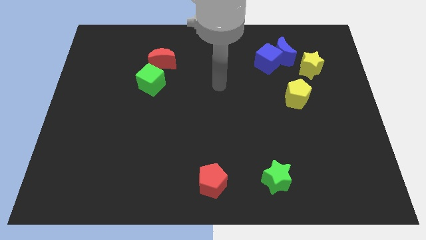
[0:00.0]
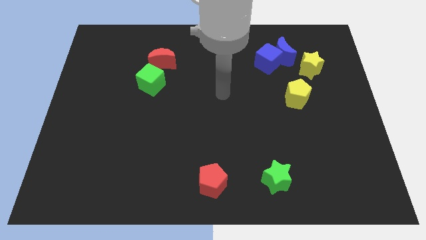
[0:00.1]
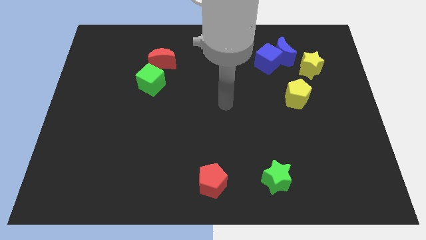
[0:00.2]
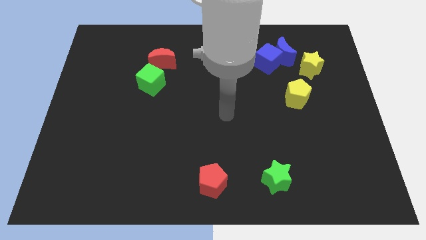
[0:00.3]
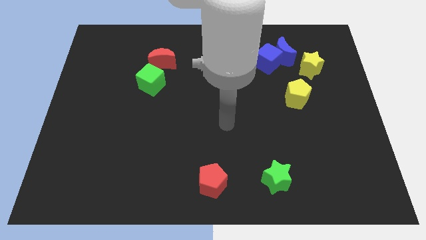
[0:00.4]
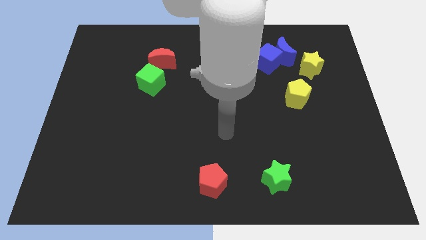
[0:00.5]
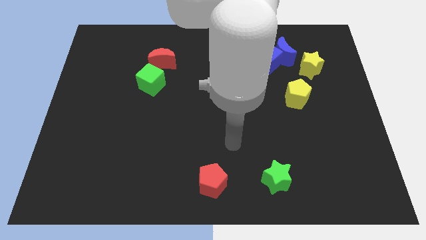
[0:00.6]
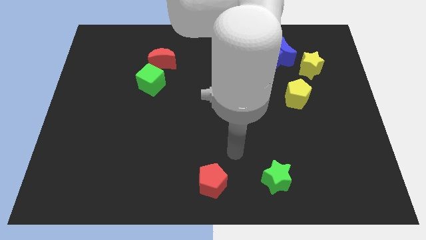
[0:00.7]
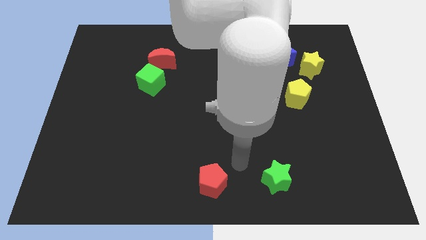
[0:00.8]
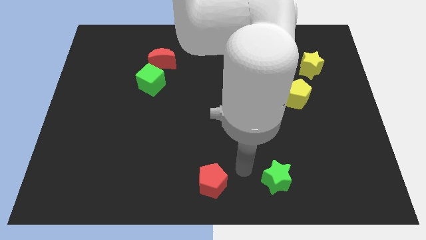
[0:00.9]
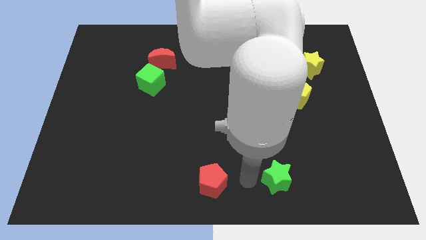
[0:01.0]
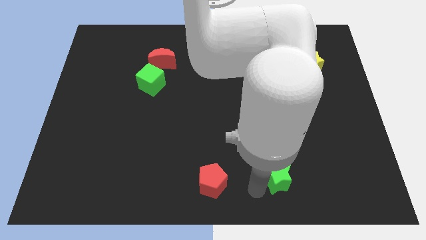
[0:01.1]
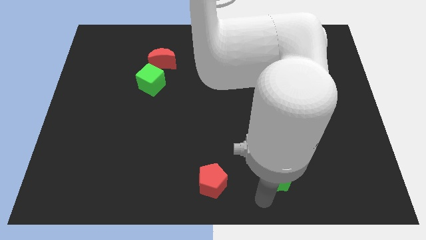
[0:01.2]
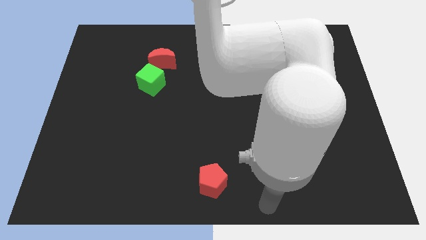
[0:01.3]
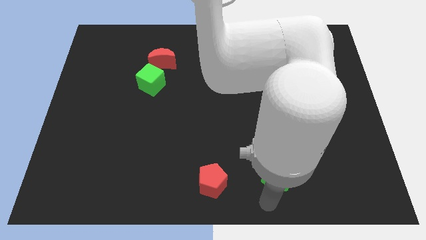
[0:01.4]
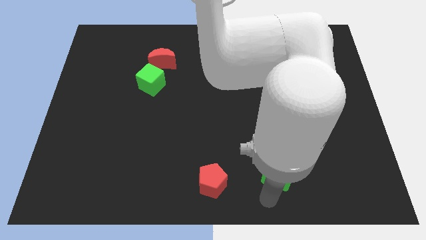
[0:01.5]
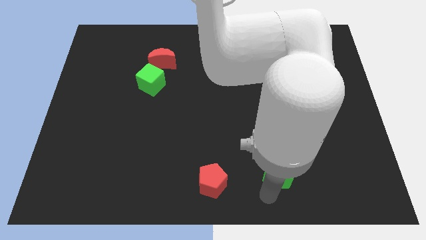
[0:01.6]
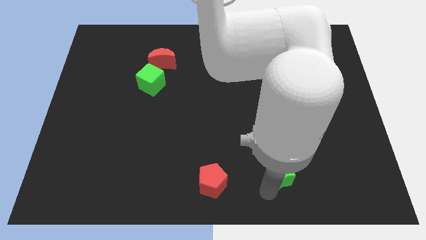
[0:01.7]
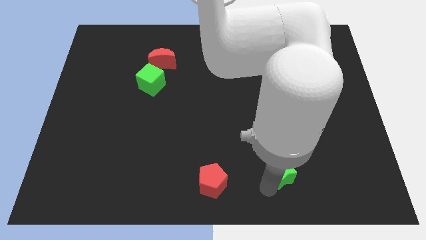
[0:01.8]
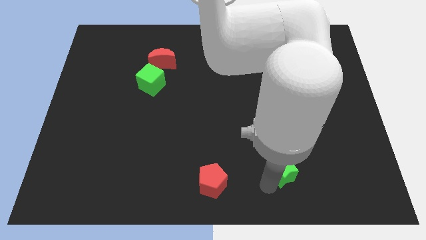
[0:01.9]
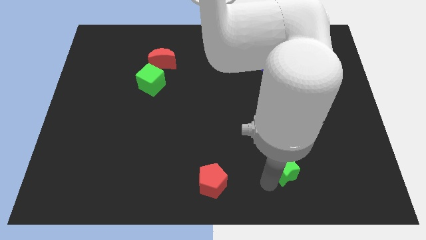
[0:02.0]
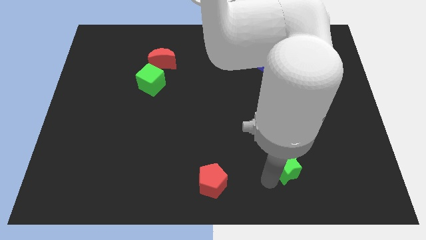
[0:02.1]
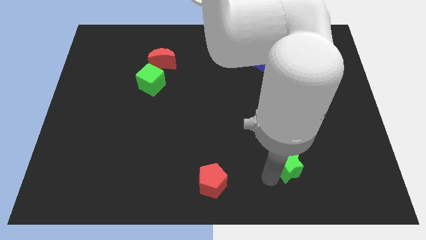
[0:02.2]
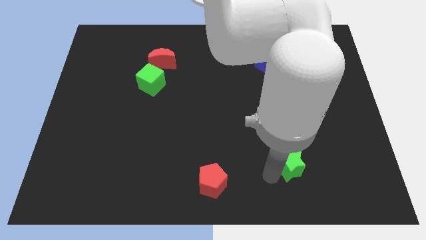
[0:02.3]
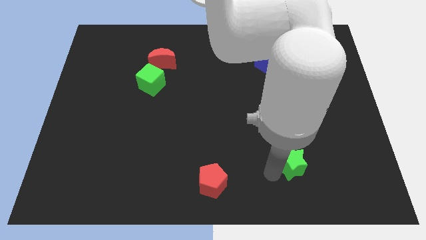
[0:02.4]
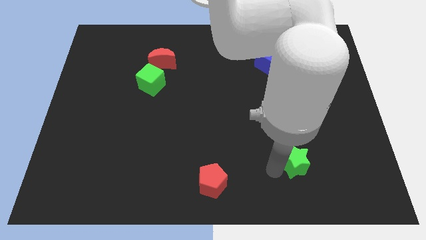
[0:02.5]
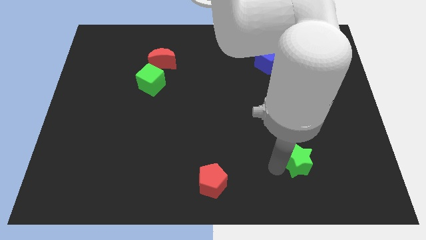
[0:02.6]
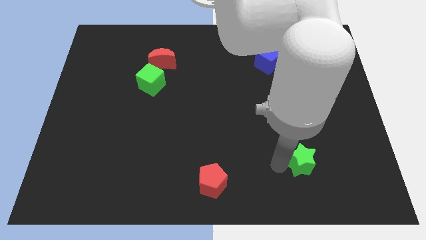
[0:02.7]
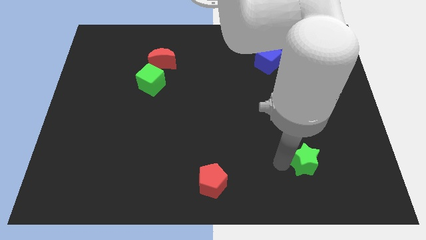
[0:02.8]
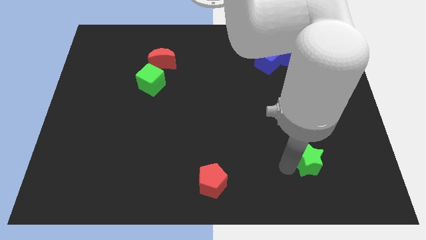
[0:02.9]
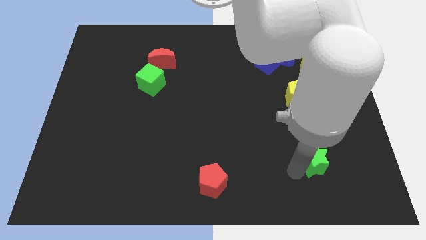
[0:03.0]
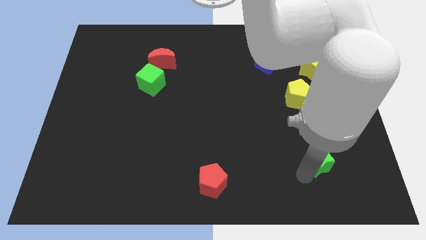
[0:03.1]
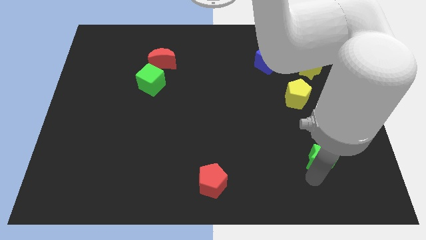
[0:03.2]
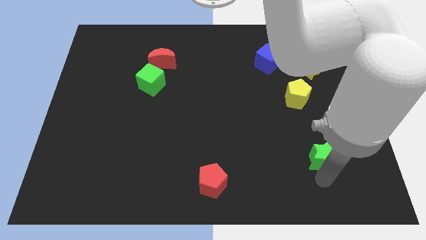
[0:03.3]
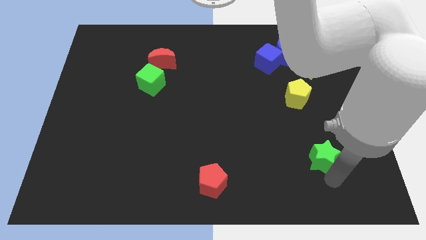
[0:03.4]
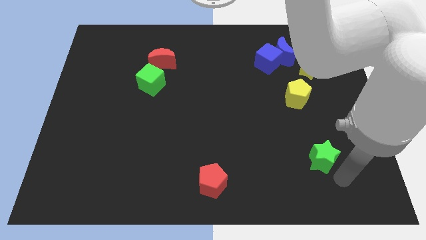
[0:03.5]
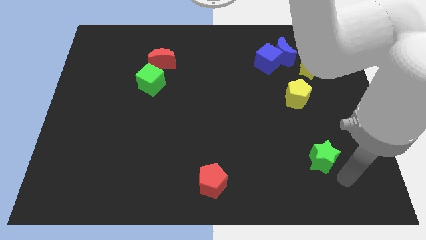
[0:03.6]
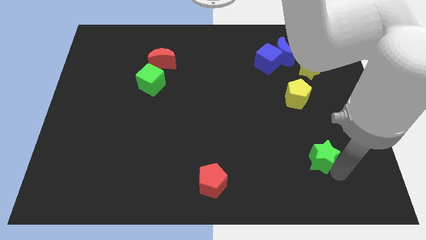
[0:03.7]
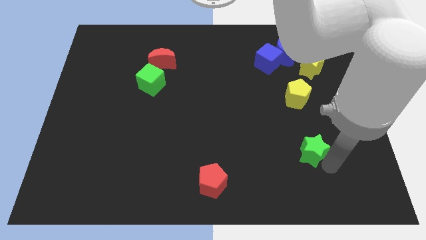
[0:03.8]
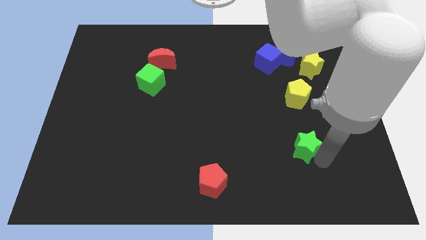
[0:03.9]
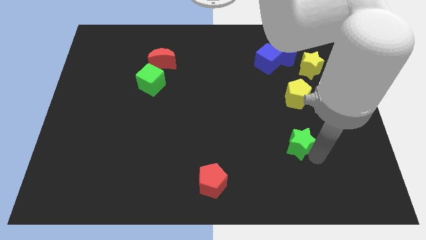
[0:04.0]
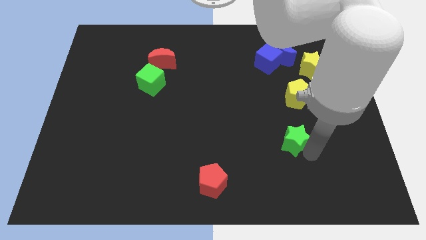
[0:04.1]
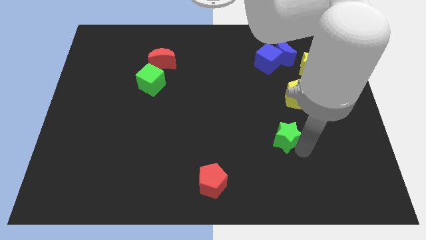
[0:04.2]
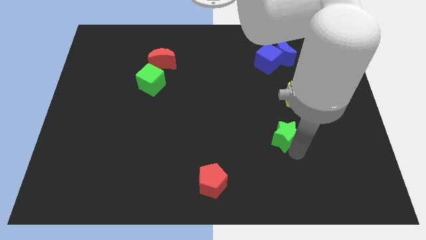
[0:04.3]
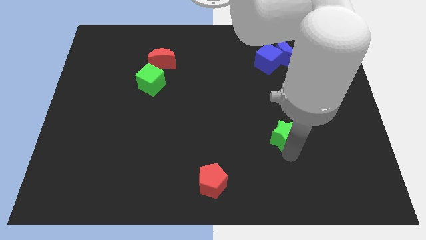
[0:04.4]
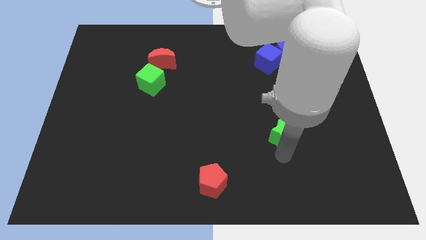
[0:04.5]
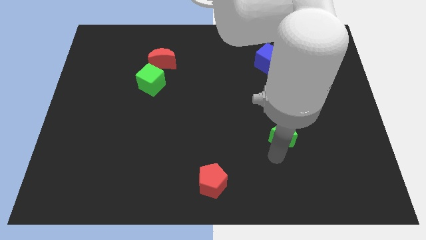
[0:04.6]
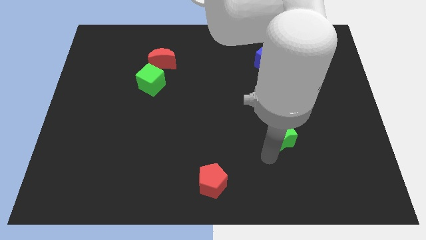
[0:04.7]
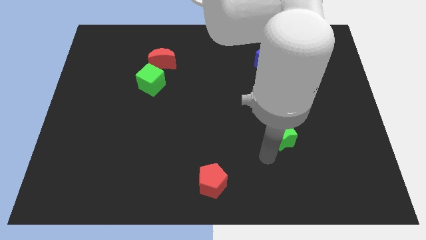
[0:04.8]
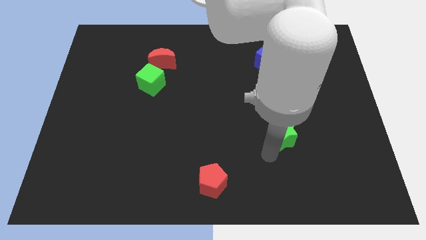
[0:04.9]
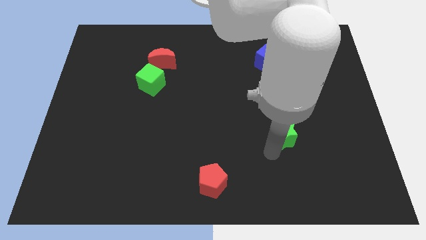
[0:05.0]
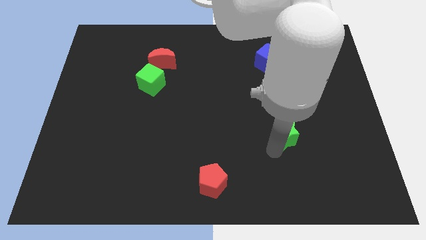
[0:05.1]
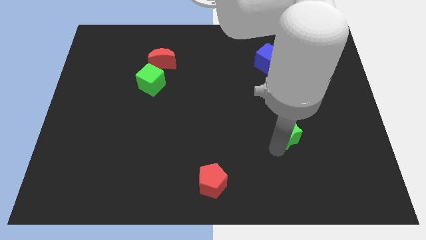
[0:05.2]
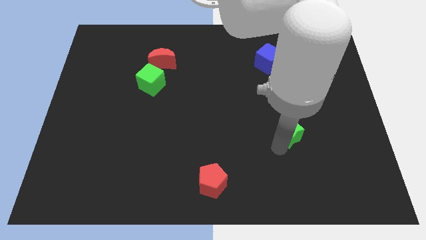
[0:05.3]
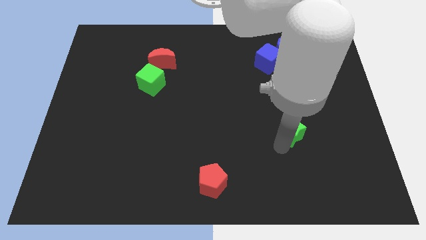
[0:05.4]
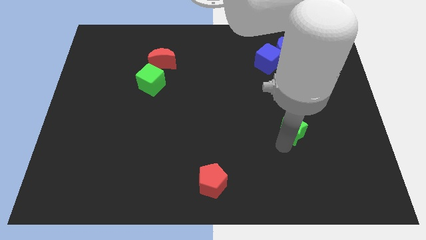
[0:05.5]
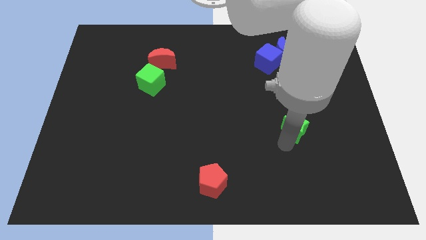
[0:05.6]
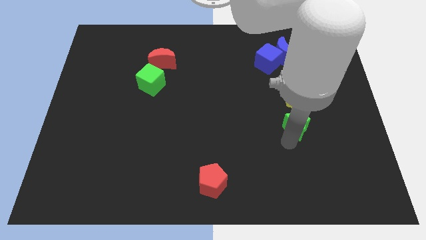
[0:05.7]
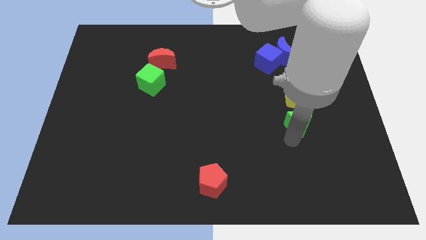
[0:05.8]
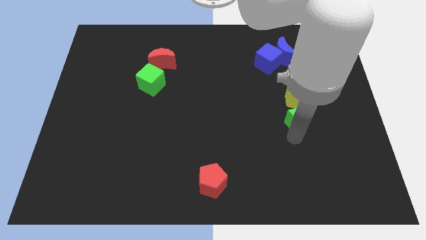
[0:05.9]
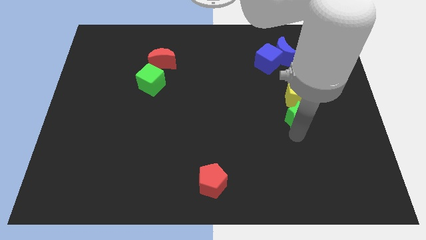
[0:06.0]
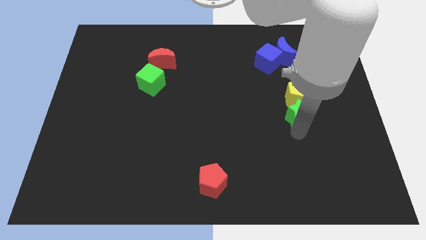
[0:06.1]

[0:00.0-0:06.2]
slide the green star close to the yellow pentagon
